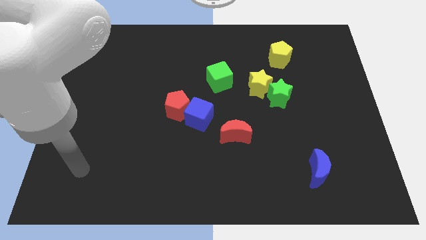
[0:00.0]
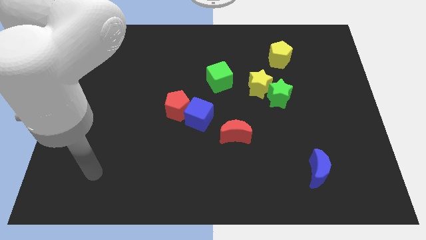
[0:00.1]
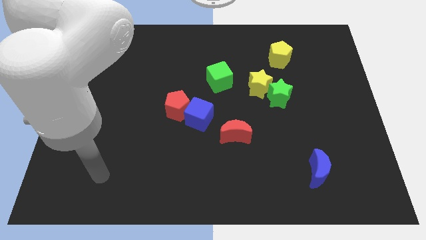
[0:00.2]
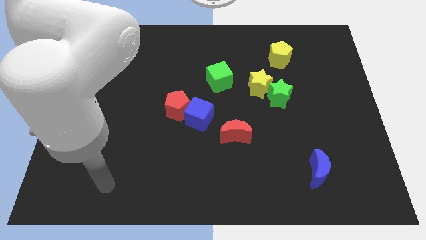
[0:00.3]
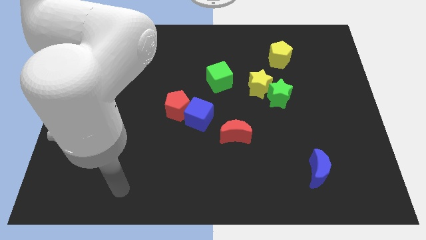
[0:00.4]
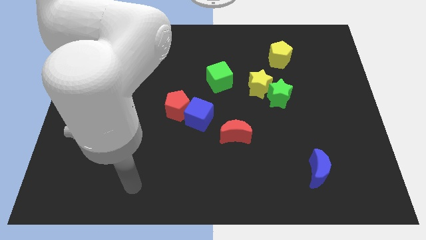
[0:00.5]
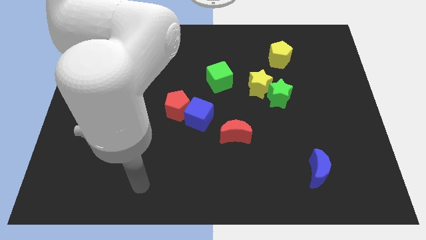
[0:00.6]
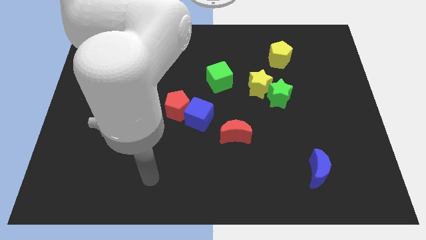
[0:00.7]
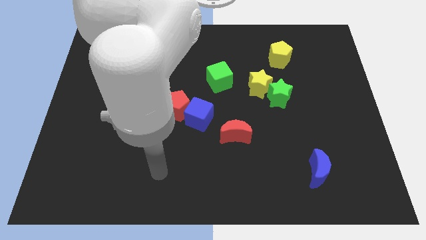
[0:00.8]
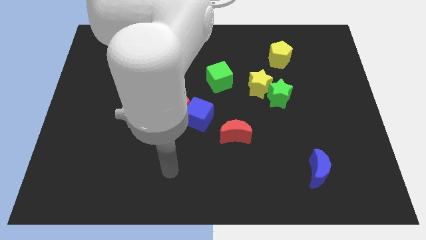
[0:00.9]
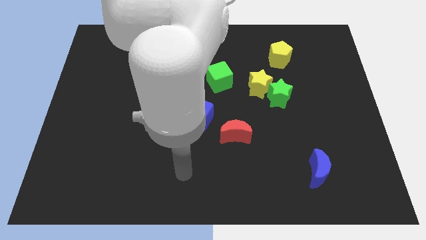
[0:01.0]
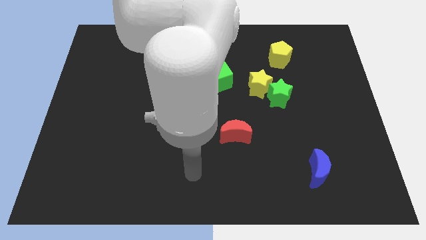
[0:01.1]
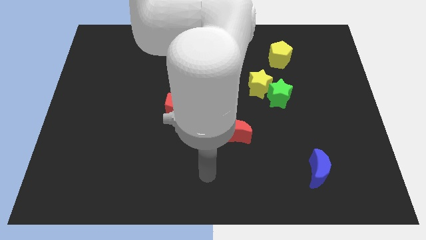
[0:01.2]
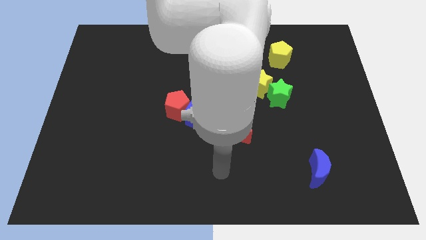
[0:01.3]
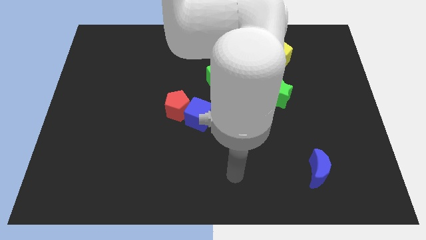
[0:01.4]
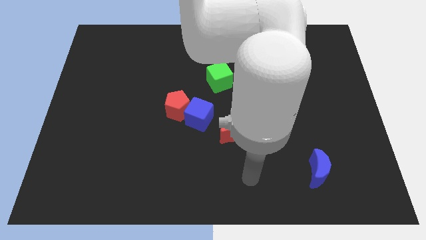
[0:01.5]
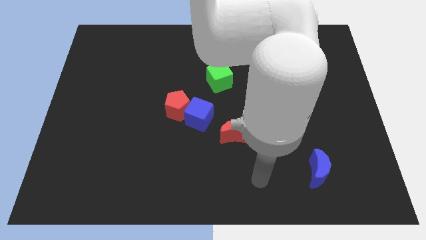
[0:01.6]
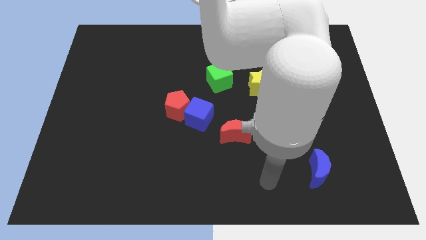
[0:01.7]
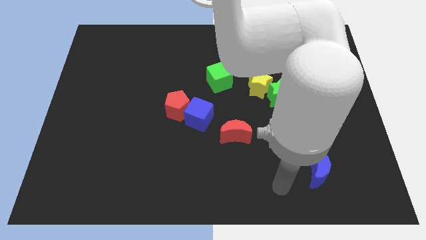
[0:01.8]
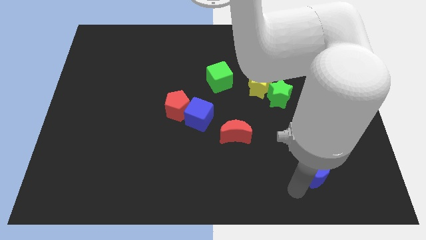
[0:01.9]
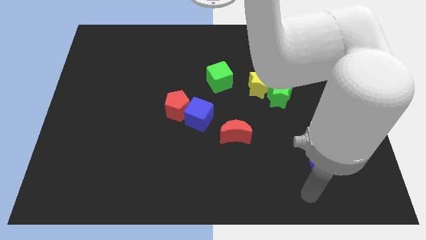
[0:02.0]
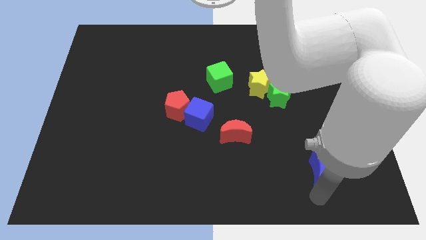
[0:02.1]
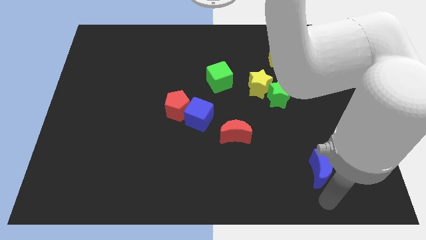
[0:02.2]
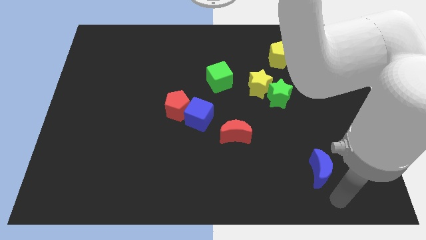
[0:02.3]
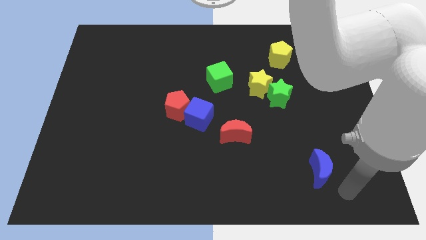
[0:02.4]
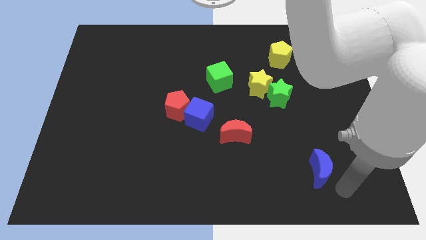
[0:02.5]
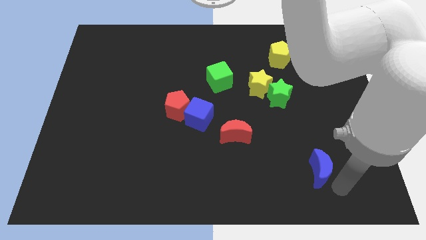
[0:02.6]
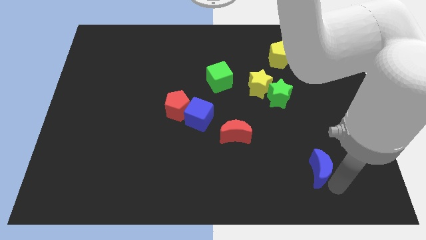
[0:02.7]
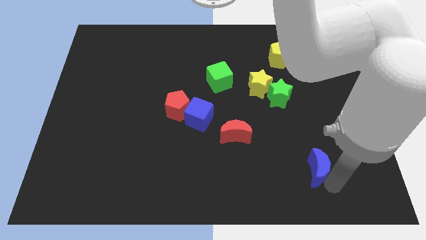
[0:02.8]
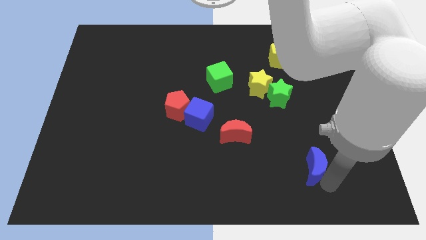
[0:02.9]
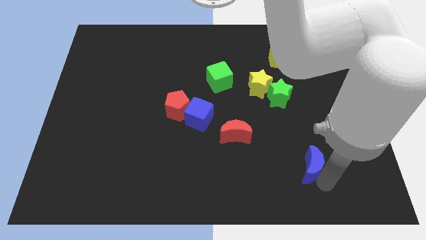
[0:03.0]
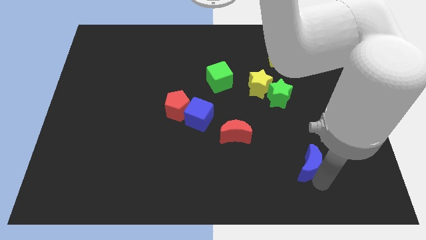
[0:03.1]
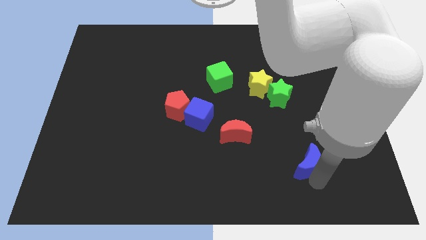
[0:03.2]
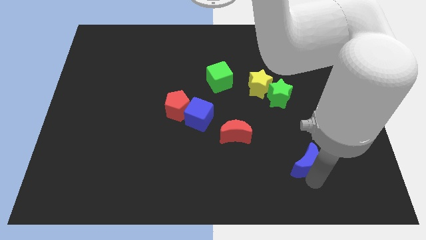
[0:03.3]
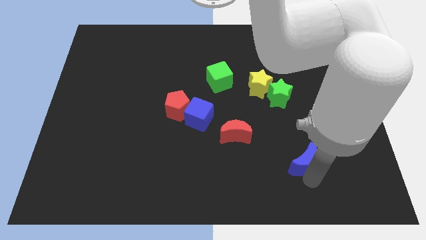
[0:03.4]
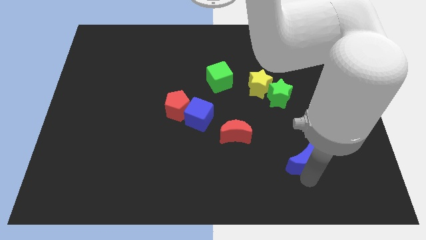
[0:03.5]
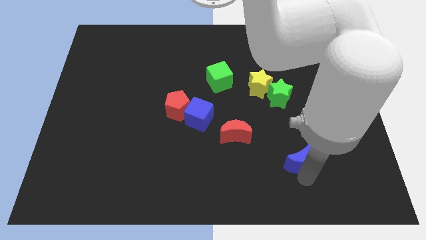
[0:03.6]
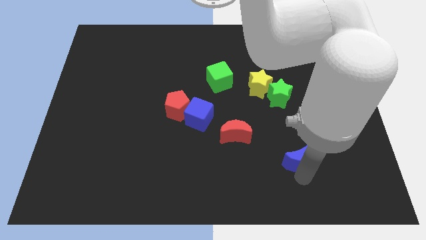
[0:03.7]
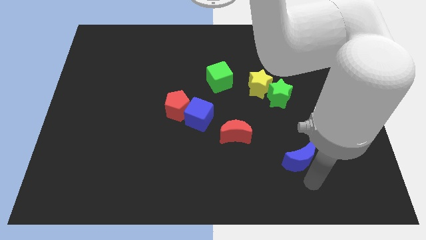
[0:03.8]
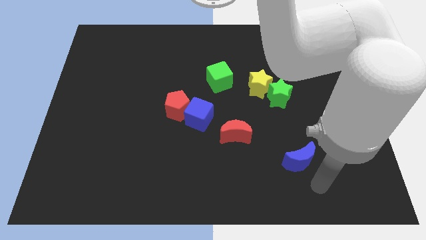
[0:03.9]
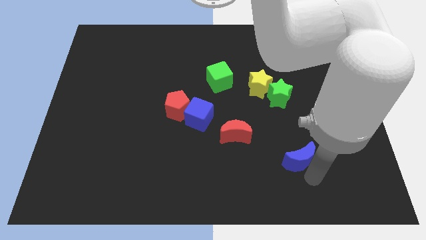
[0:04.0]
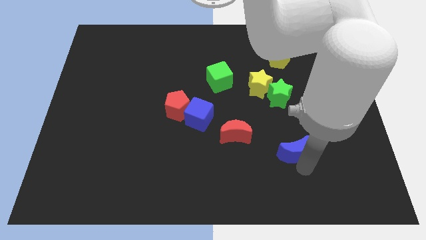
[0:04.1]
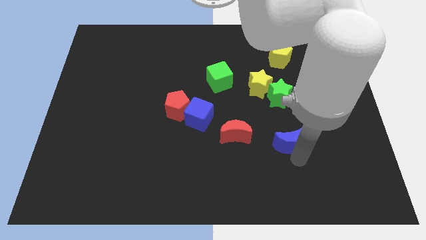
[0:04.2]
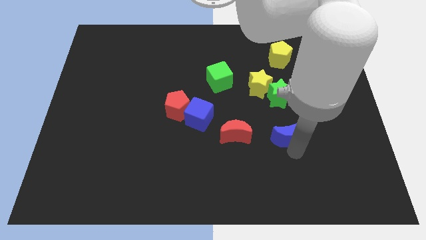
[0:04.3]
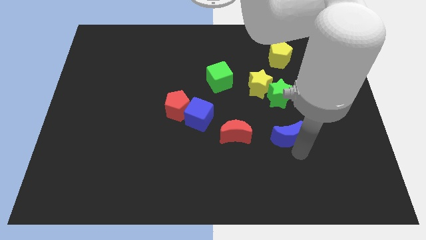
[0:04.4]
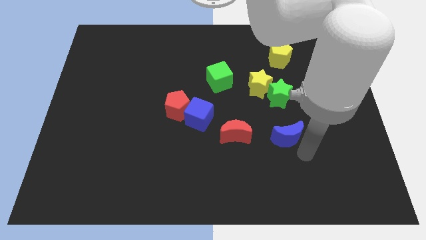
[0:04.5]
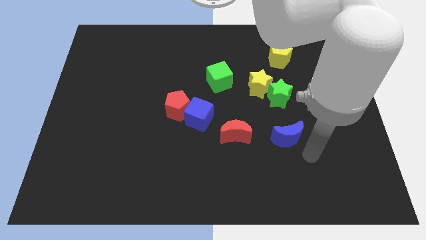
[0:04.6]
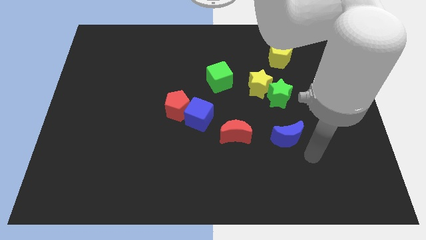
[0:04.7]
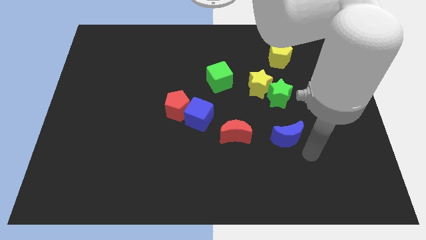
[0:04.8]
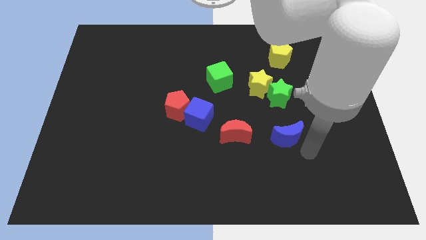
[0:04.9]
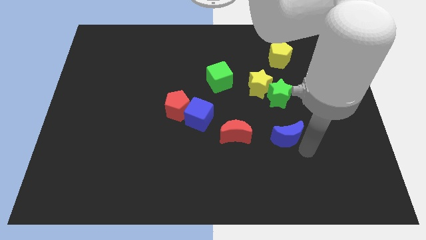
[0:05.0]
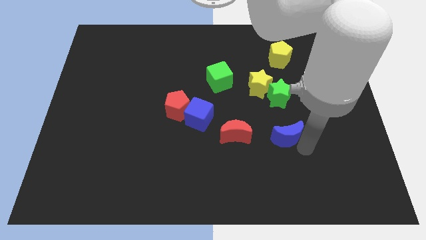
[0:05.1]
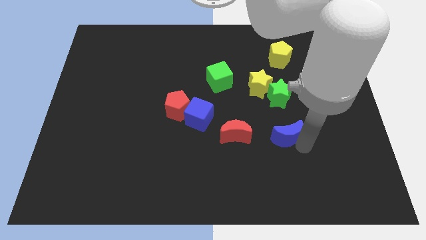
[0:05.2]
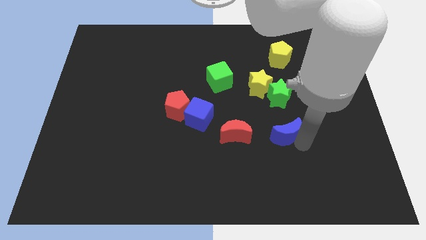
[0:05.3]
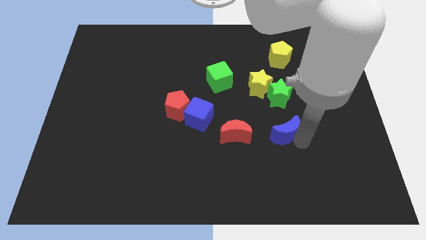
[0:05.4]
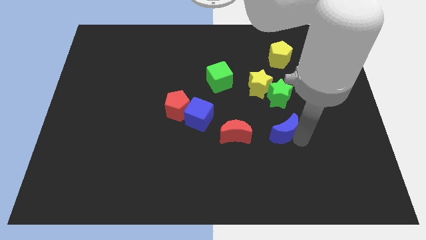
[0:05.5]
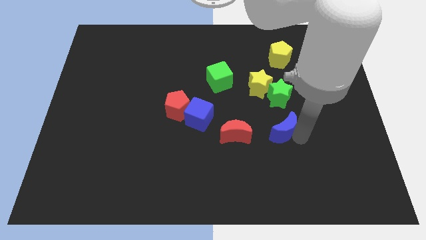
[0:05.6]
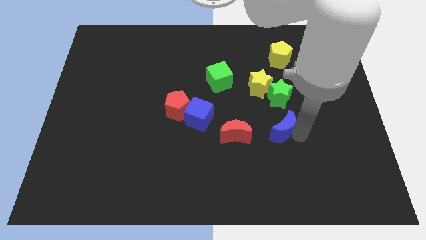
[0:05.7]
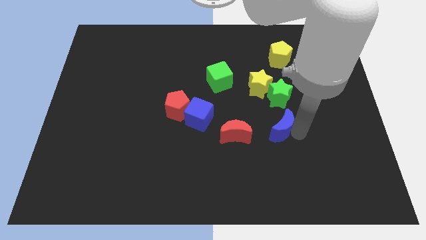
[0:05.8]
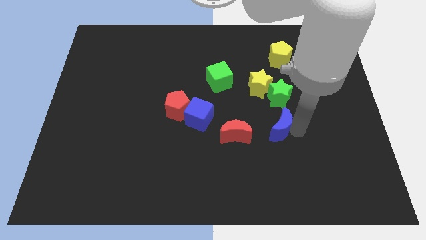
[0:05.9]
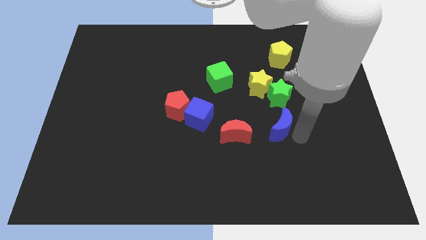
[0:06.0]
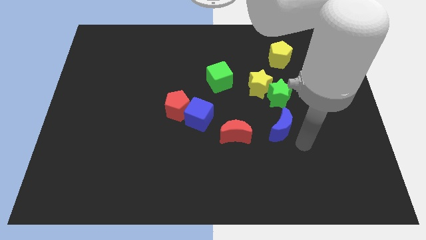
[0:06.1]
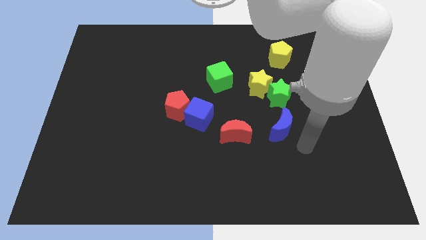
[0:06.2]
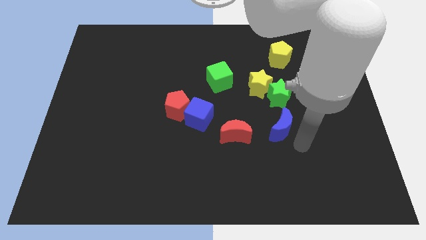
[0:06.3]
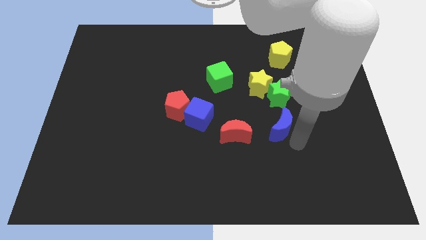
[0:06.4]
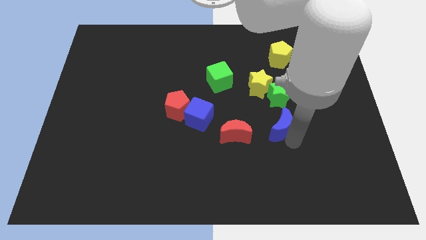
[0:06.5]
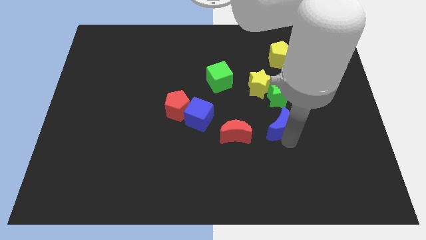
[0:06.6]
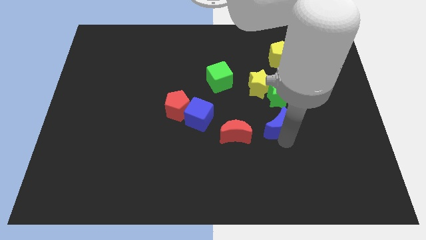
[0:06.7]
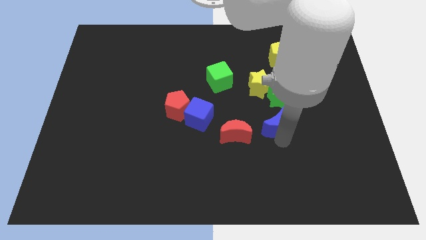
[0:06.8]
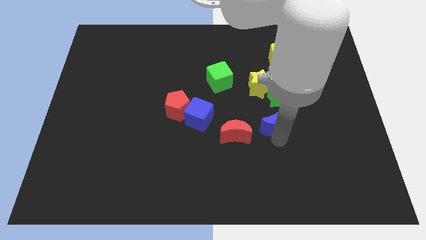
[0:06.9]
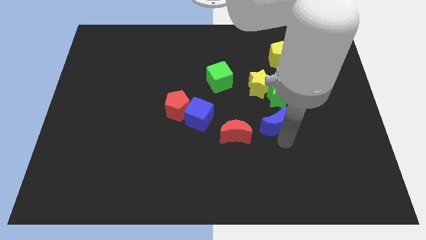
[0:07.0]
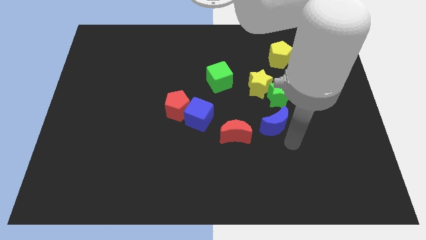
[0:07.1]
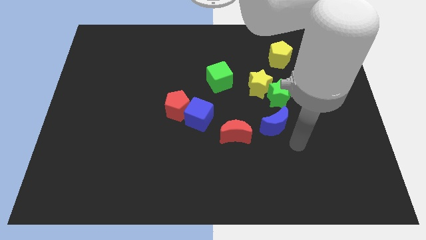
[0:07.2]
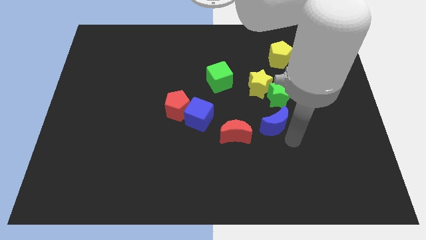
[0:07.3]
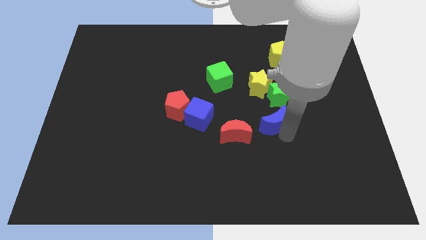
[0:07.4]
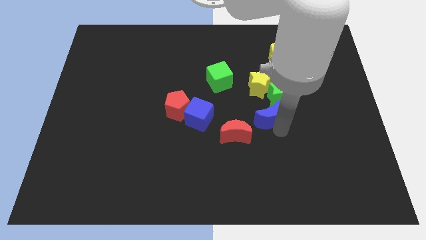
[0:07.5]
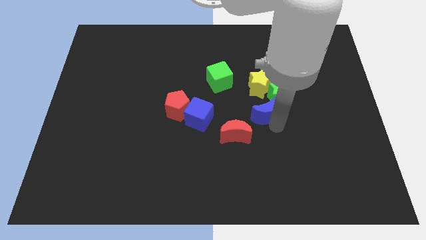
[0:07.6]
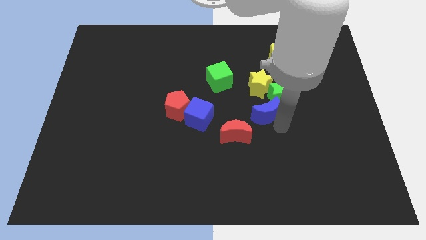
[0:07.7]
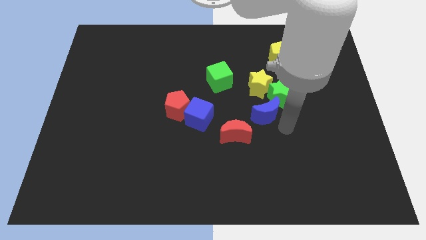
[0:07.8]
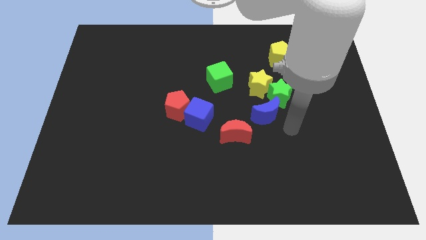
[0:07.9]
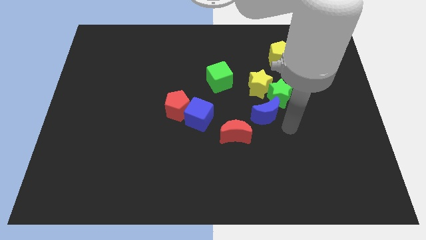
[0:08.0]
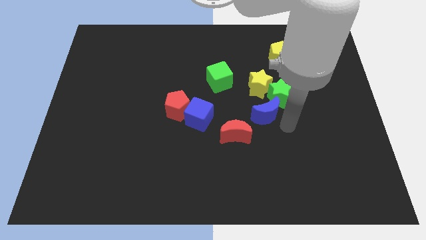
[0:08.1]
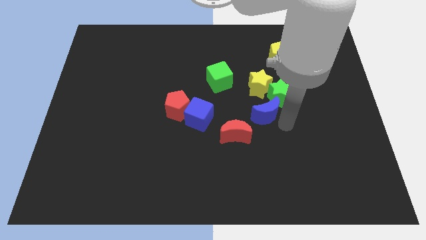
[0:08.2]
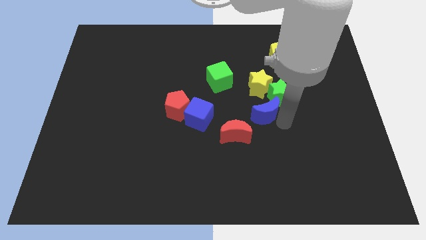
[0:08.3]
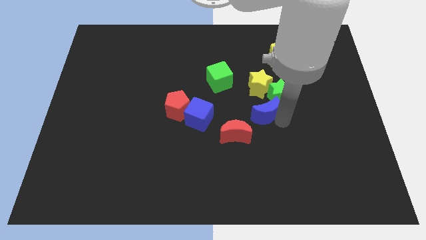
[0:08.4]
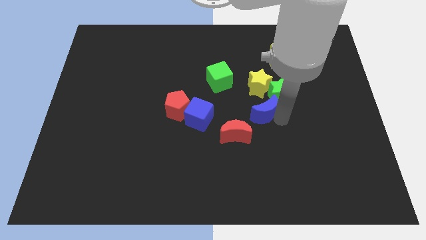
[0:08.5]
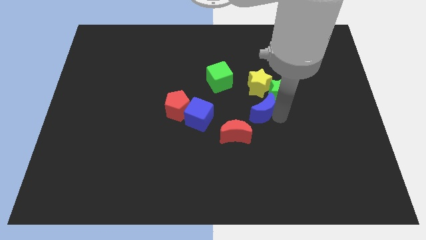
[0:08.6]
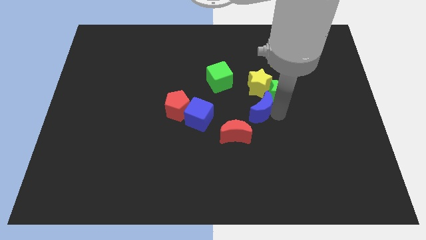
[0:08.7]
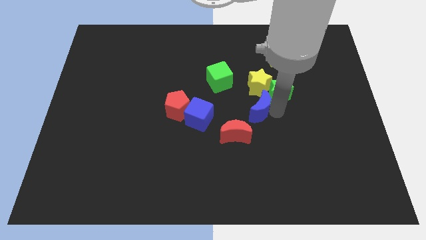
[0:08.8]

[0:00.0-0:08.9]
put the blue moon to the left of the green star
